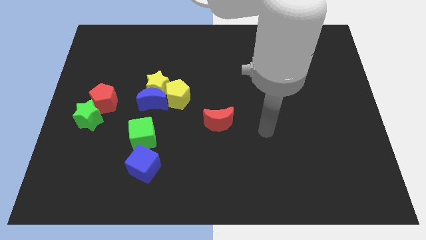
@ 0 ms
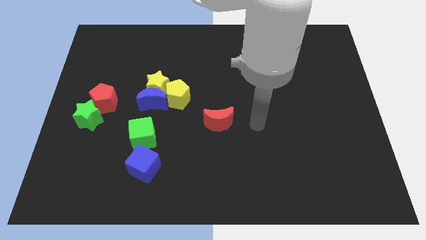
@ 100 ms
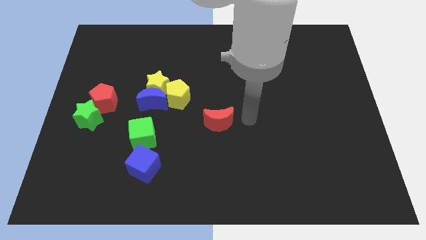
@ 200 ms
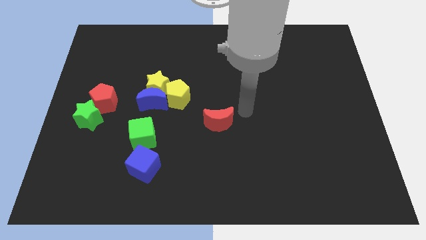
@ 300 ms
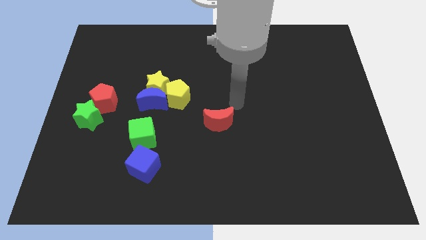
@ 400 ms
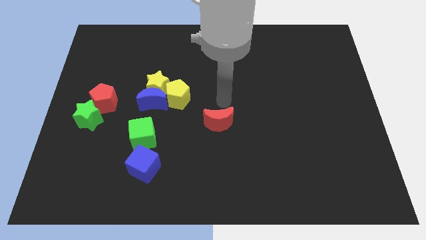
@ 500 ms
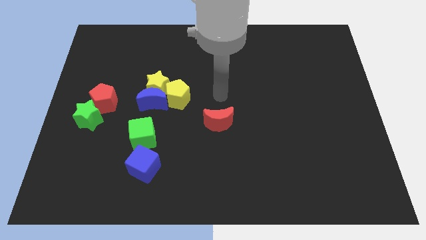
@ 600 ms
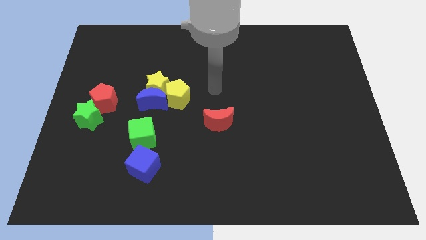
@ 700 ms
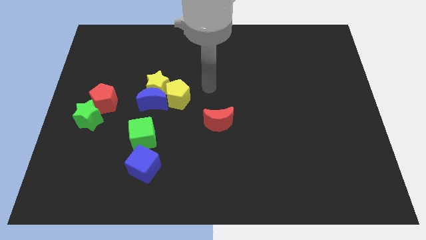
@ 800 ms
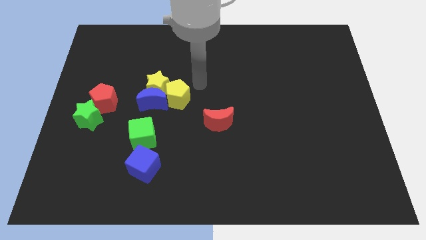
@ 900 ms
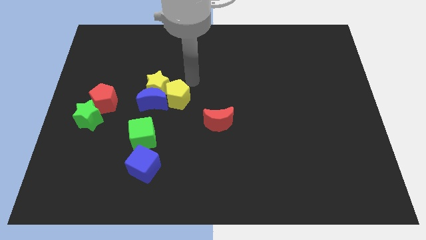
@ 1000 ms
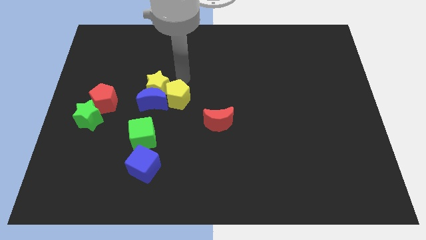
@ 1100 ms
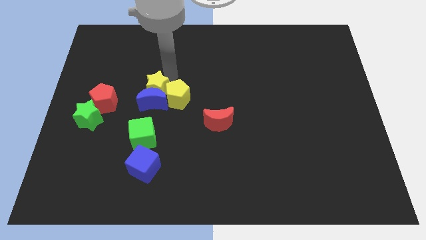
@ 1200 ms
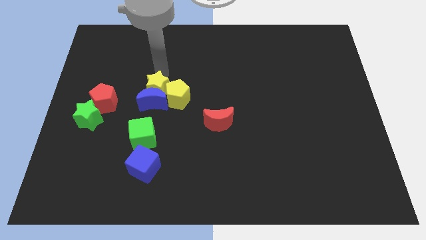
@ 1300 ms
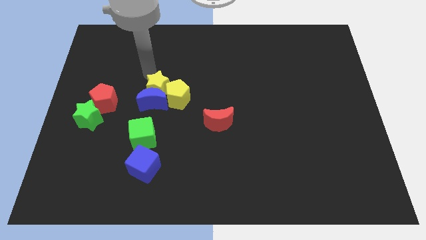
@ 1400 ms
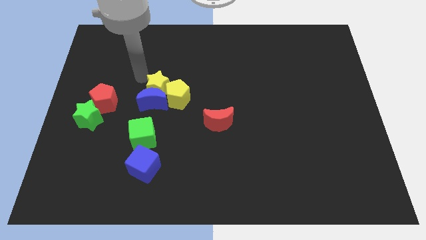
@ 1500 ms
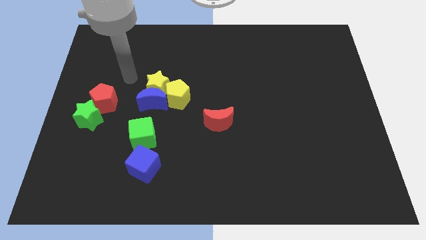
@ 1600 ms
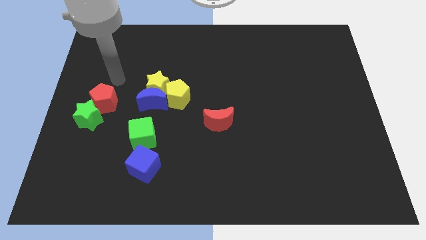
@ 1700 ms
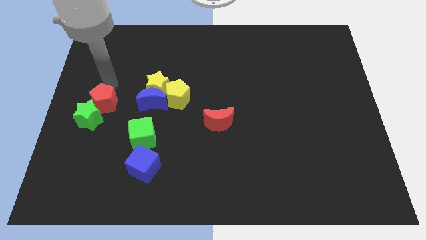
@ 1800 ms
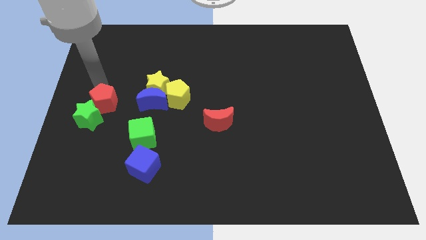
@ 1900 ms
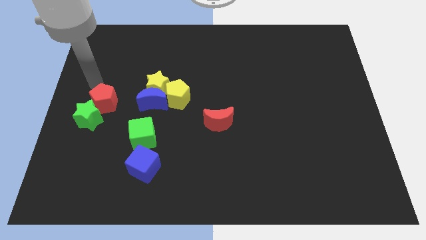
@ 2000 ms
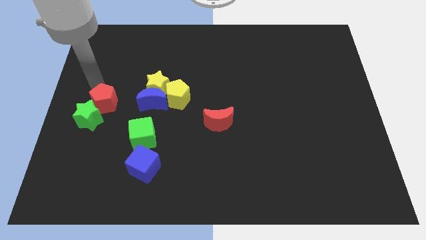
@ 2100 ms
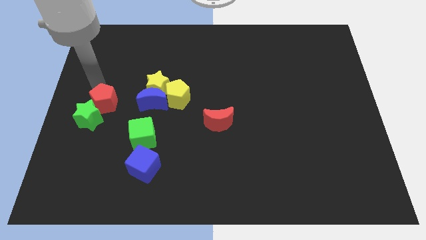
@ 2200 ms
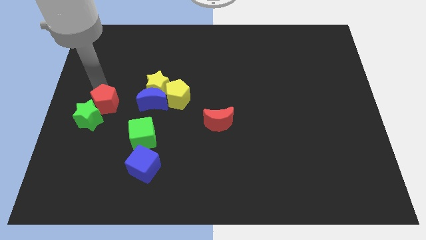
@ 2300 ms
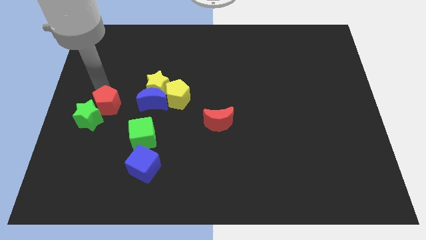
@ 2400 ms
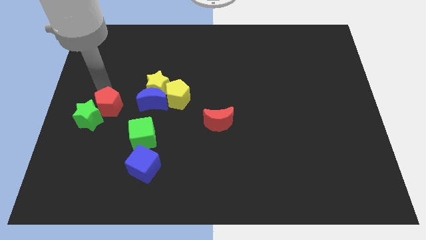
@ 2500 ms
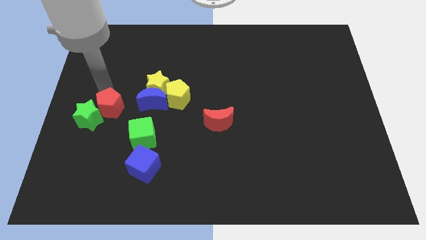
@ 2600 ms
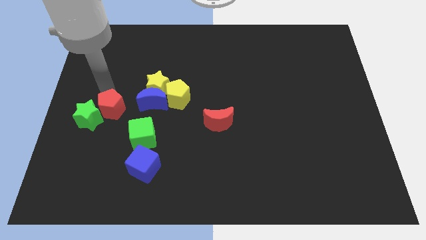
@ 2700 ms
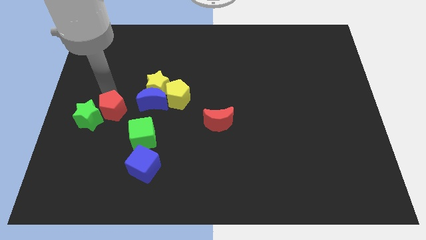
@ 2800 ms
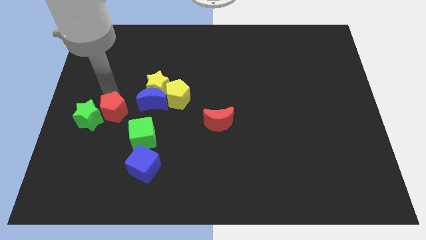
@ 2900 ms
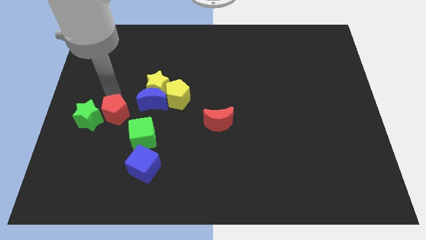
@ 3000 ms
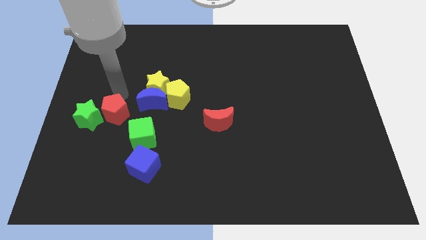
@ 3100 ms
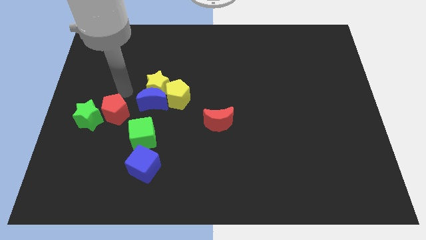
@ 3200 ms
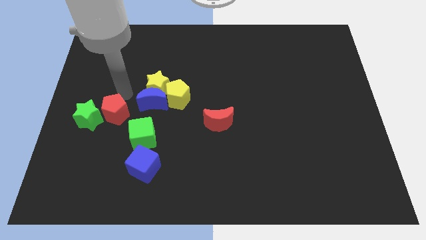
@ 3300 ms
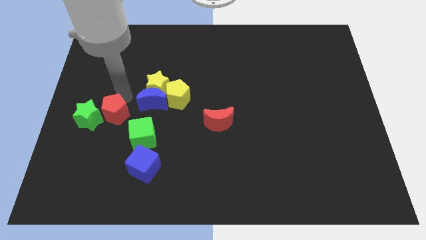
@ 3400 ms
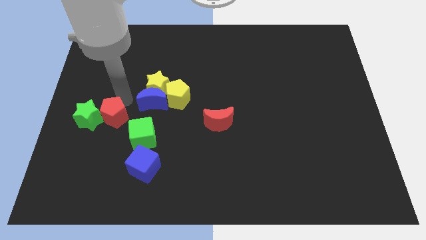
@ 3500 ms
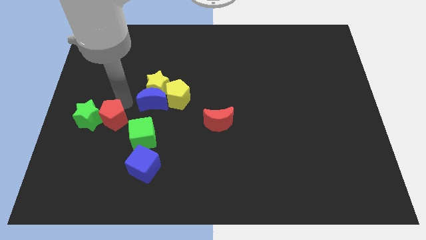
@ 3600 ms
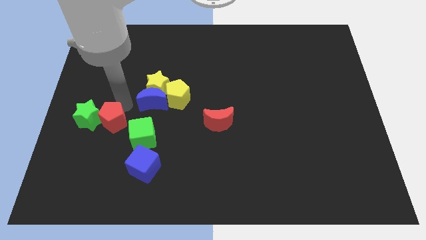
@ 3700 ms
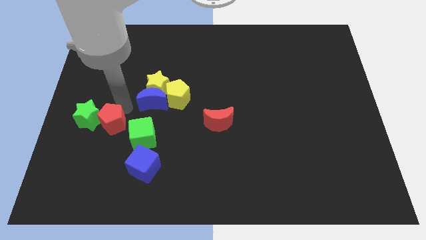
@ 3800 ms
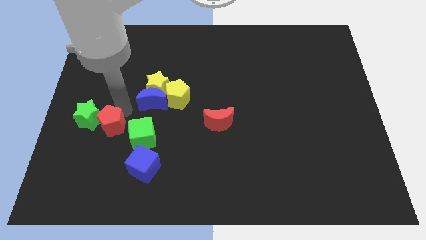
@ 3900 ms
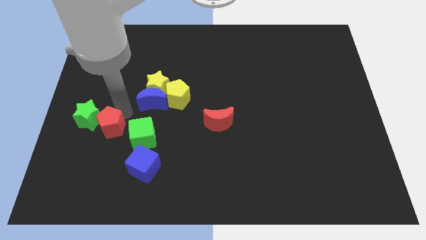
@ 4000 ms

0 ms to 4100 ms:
move the red pentagon downwards somewhat

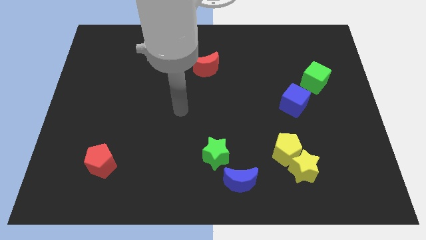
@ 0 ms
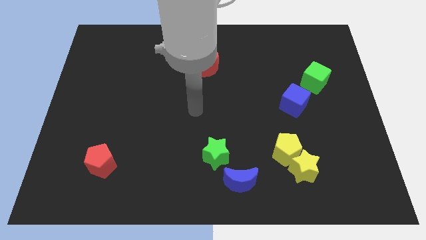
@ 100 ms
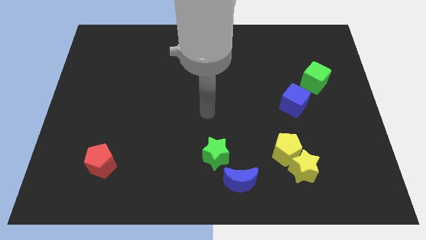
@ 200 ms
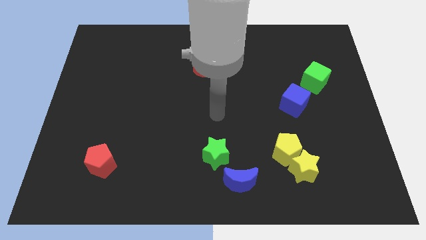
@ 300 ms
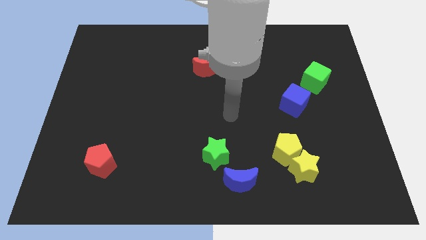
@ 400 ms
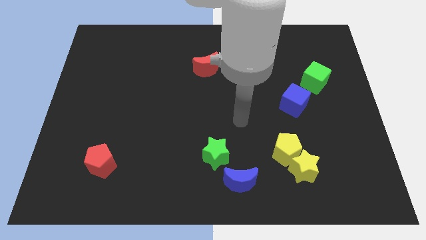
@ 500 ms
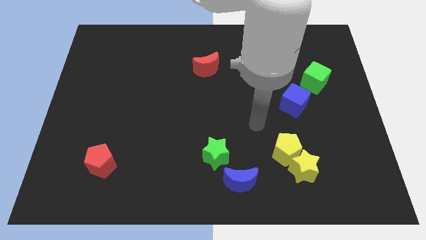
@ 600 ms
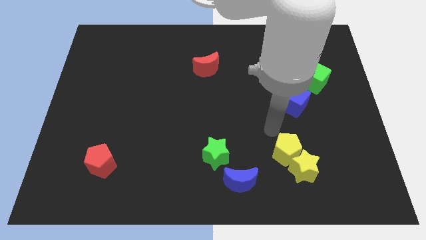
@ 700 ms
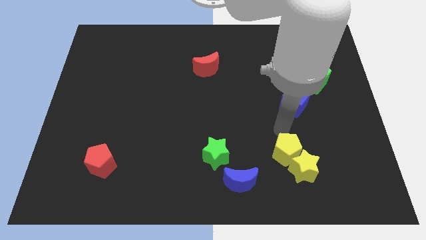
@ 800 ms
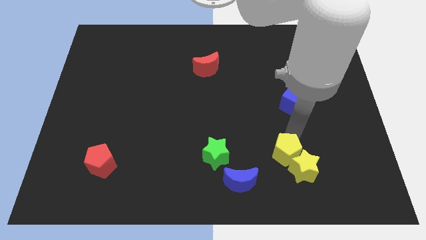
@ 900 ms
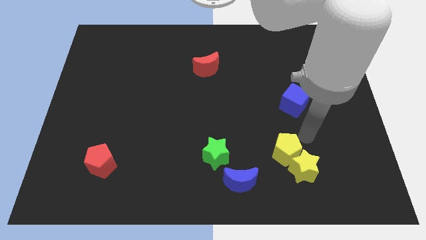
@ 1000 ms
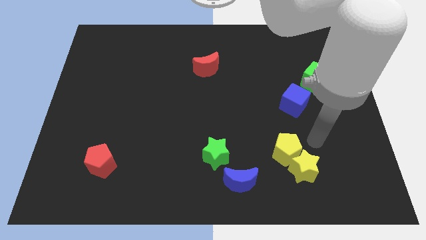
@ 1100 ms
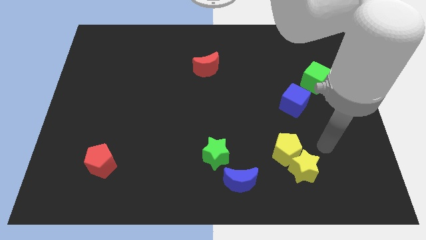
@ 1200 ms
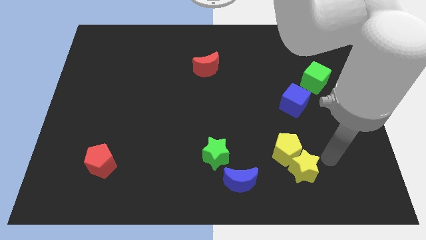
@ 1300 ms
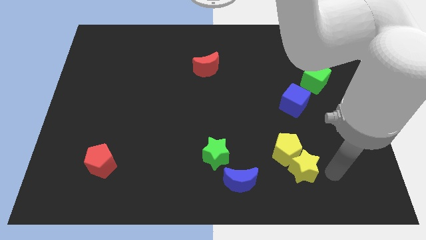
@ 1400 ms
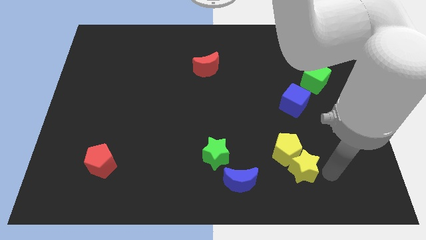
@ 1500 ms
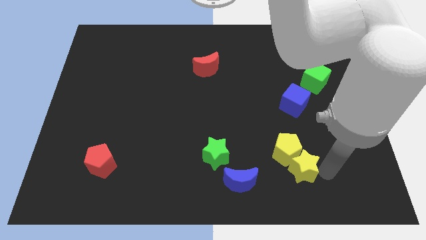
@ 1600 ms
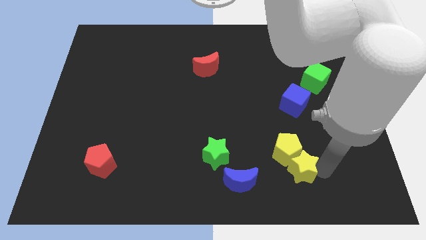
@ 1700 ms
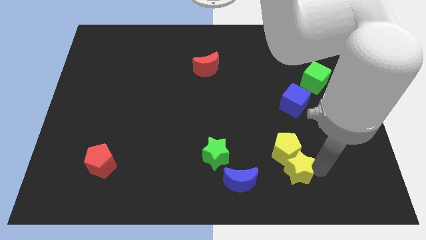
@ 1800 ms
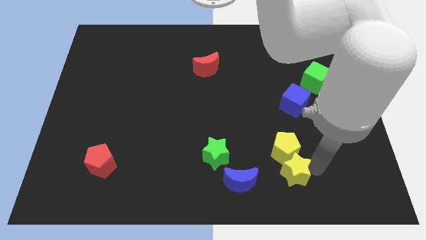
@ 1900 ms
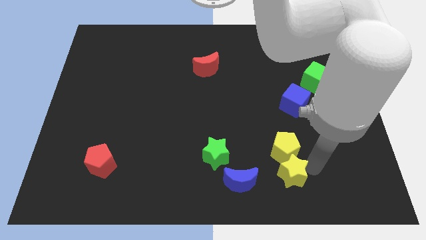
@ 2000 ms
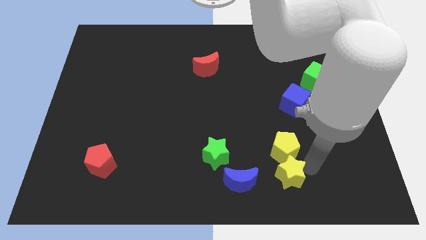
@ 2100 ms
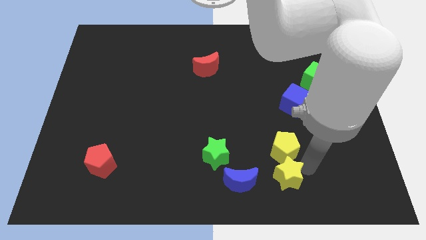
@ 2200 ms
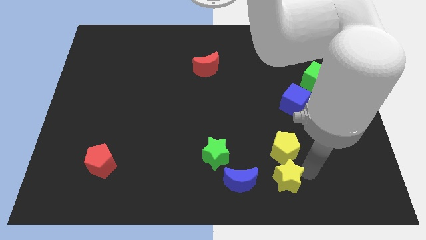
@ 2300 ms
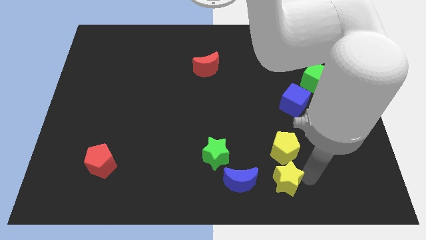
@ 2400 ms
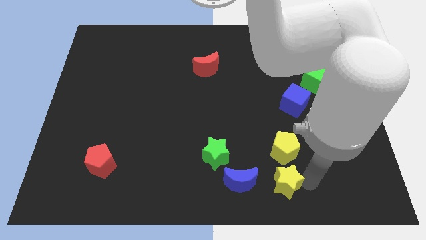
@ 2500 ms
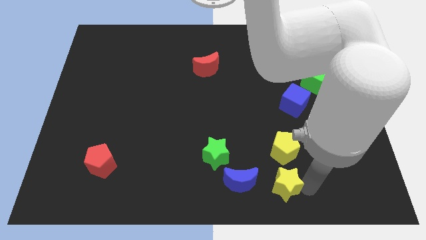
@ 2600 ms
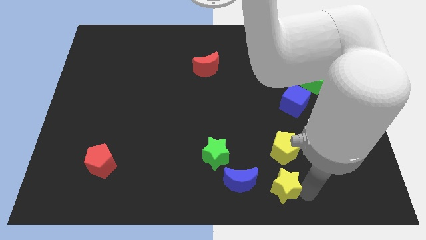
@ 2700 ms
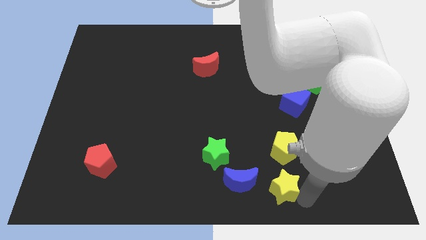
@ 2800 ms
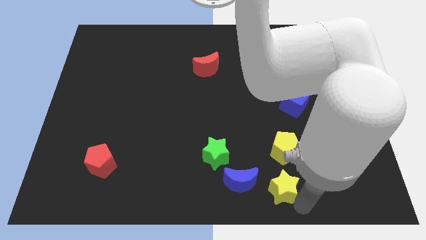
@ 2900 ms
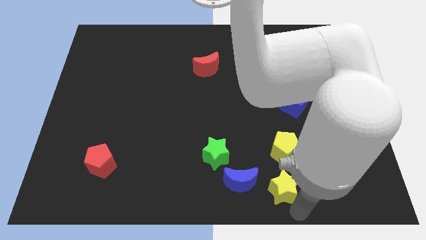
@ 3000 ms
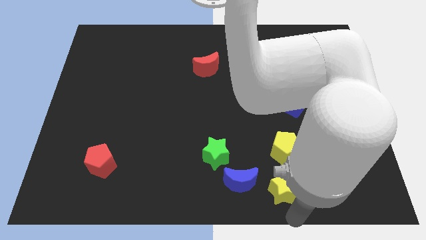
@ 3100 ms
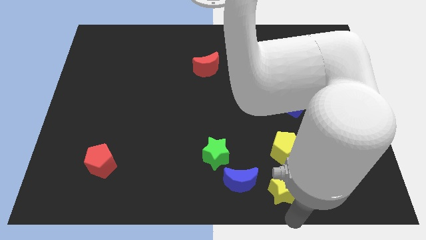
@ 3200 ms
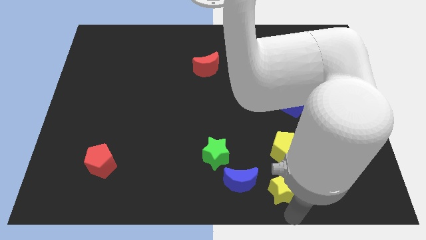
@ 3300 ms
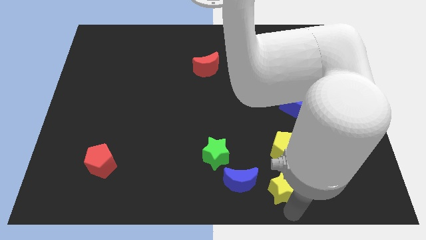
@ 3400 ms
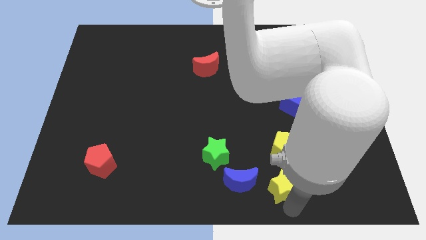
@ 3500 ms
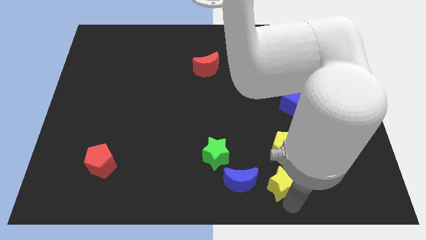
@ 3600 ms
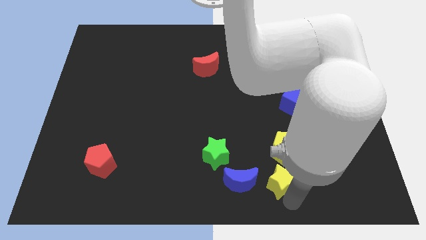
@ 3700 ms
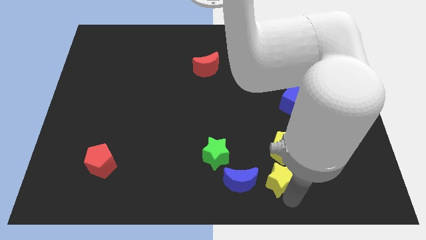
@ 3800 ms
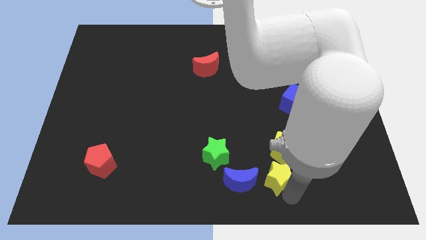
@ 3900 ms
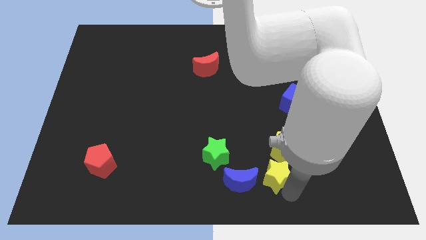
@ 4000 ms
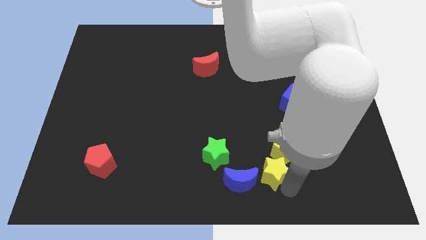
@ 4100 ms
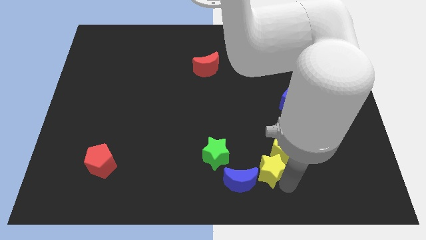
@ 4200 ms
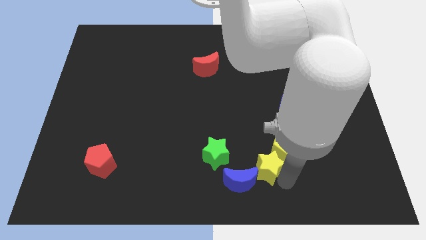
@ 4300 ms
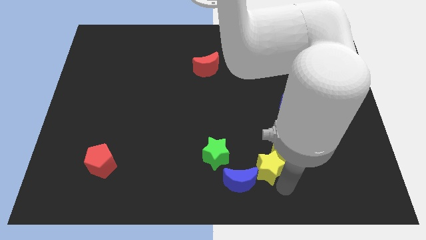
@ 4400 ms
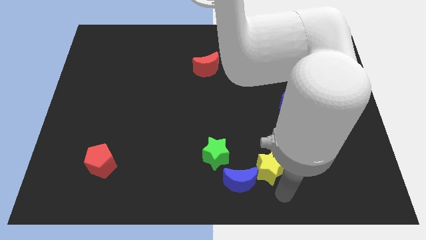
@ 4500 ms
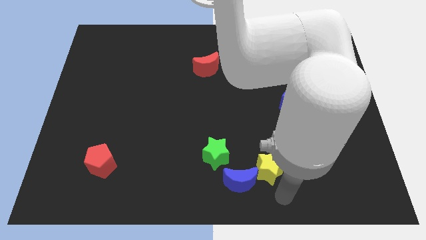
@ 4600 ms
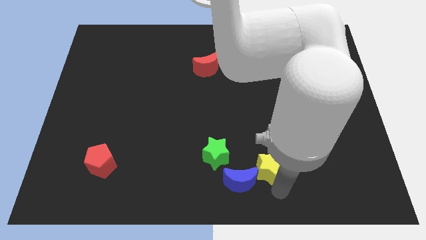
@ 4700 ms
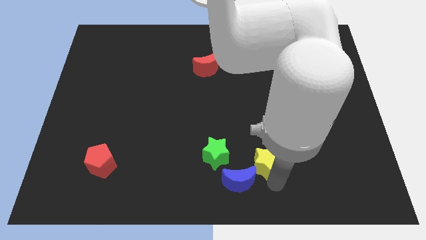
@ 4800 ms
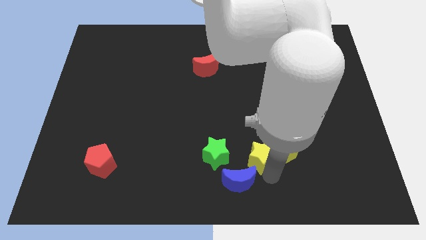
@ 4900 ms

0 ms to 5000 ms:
slightly move the yellow star up and to the left
